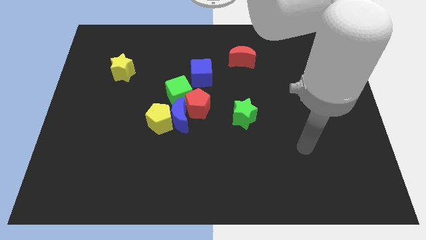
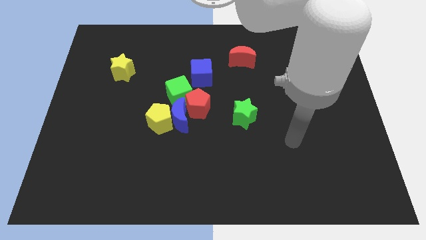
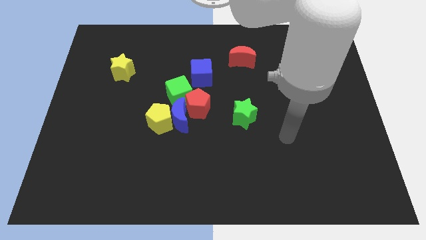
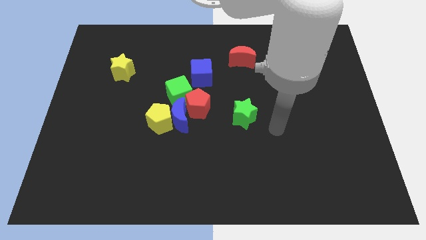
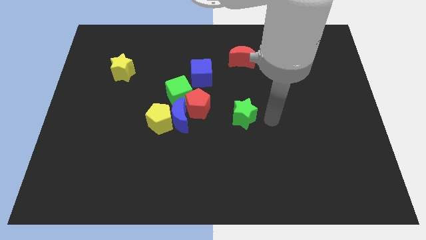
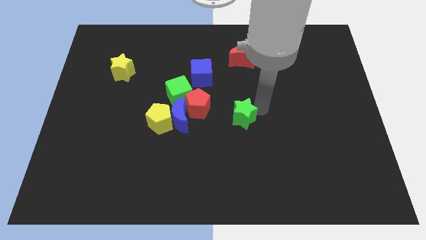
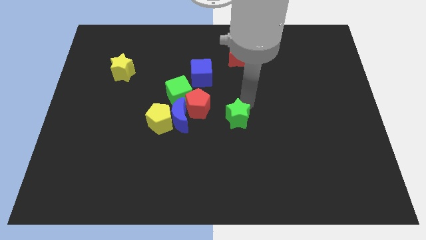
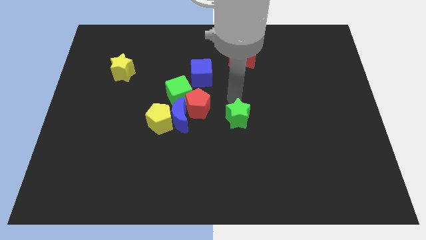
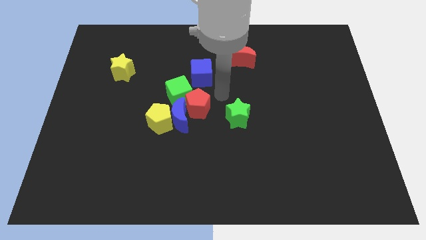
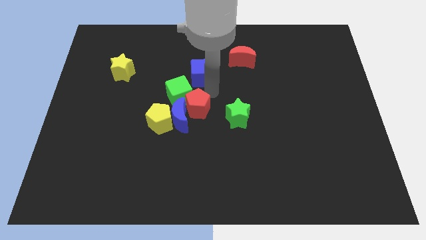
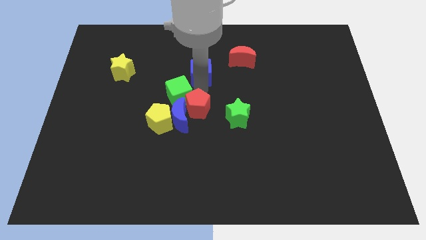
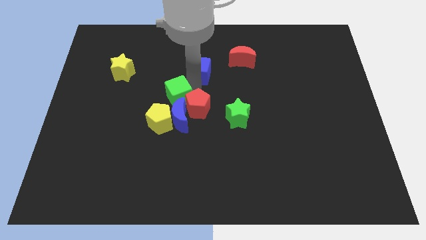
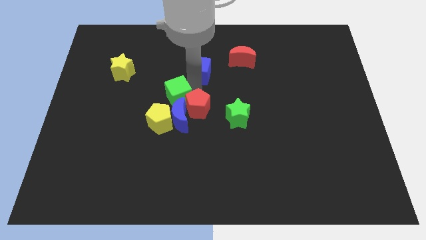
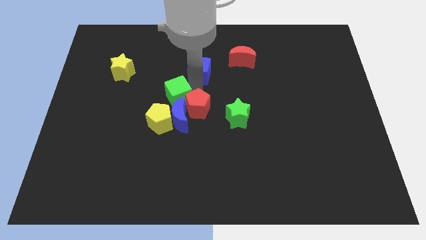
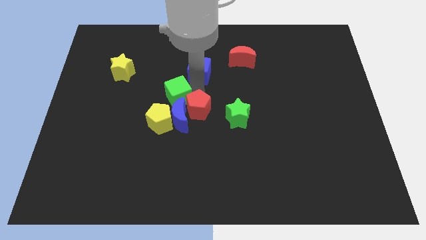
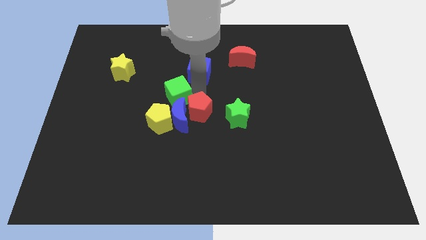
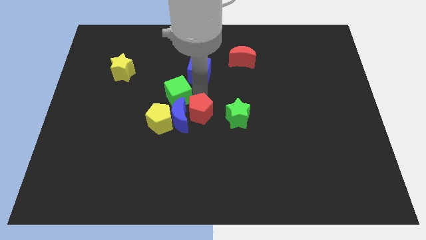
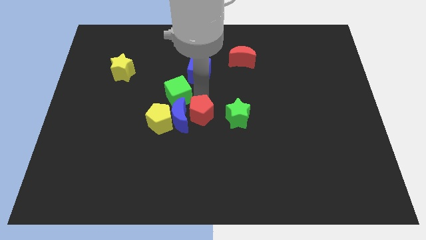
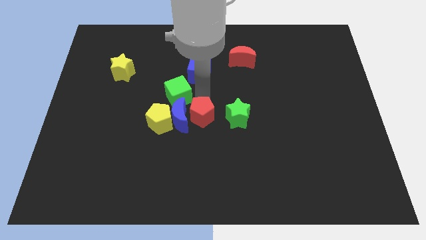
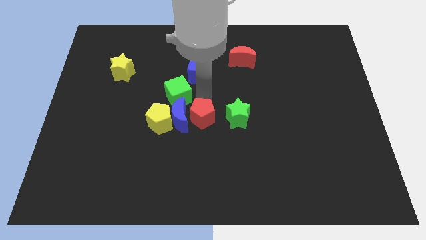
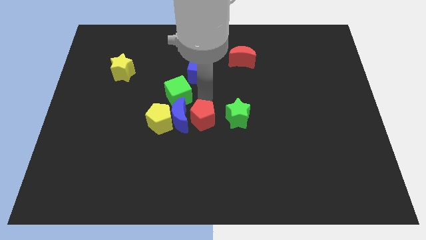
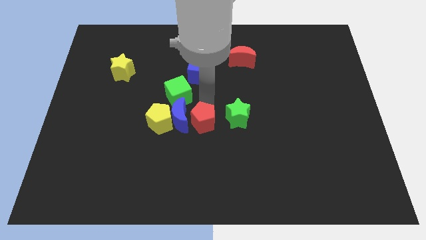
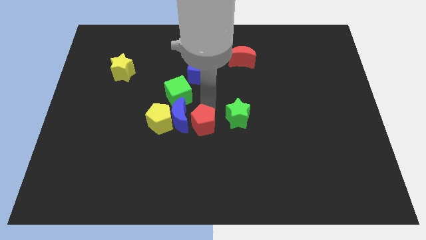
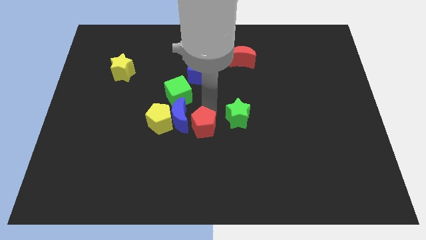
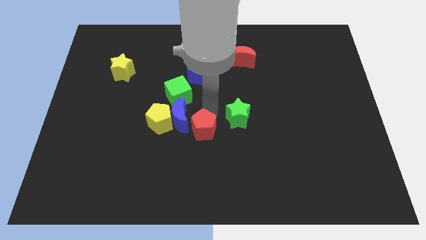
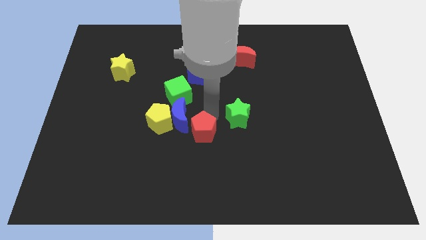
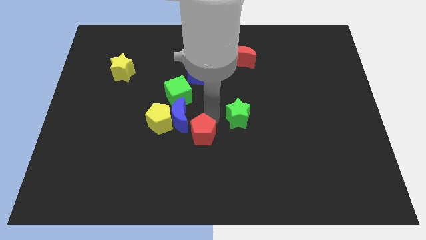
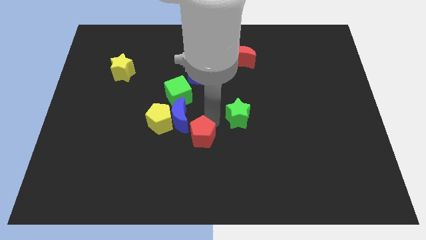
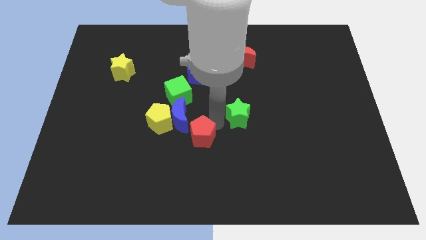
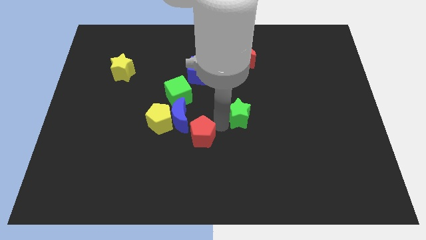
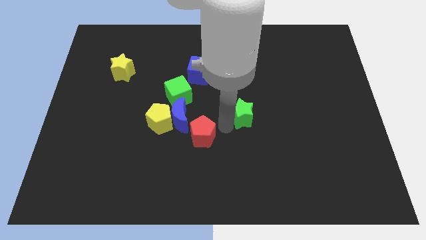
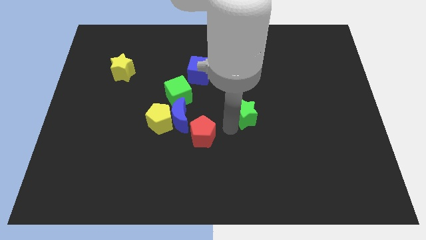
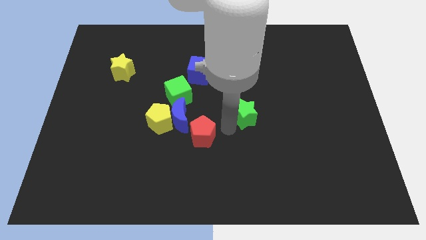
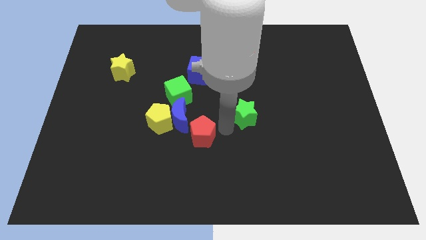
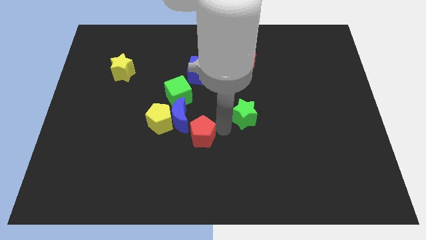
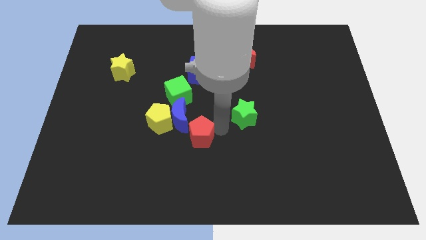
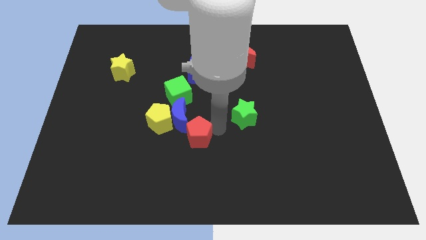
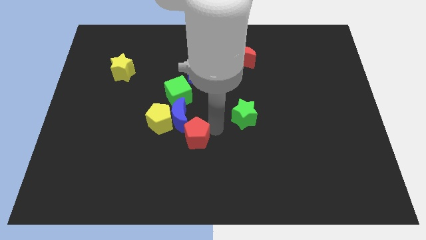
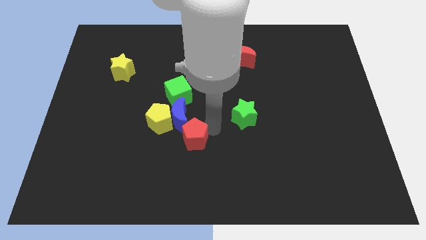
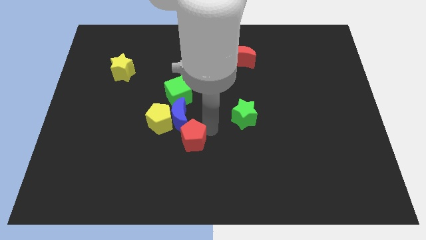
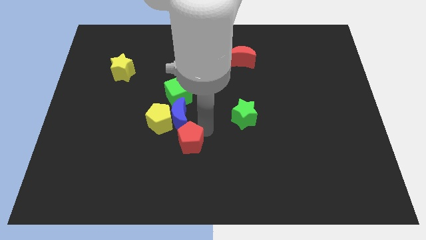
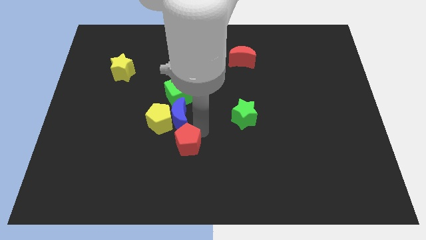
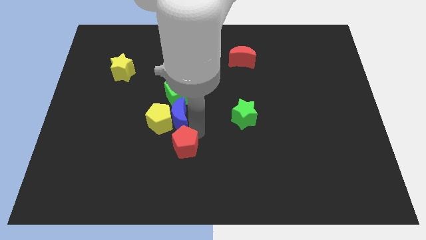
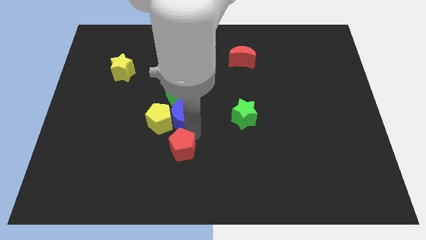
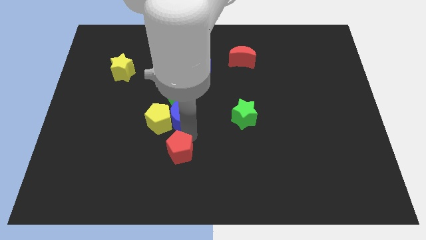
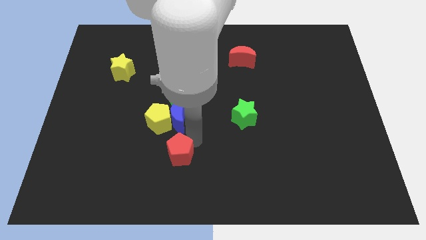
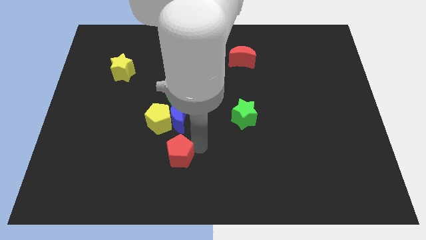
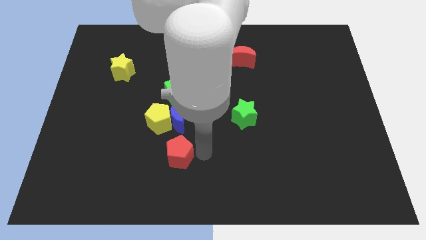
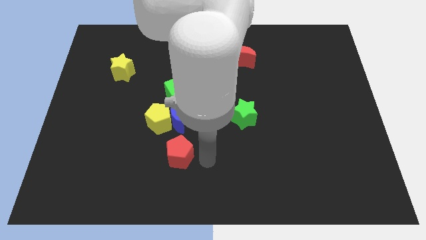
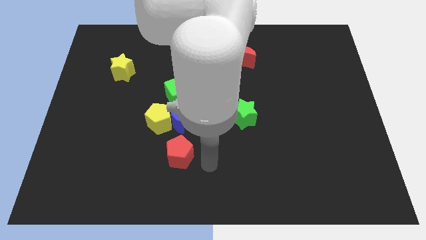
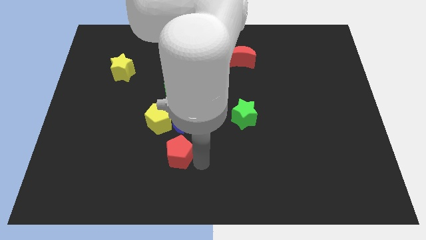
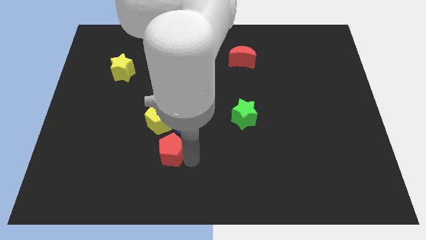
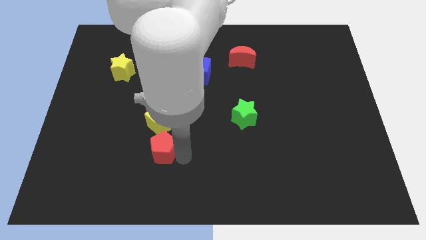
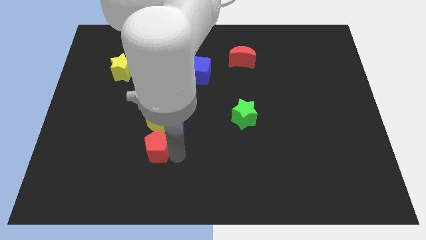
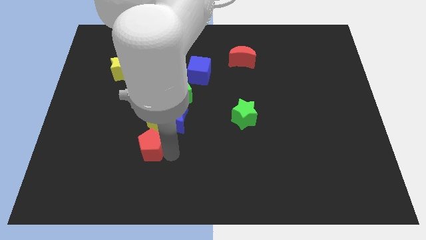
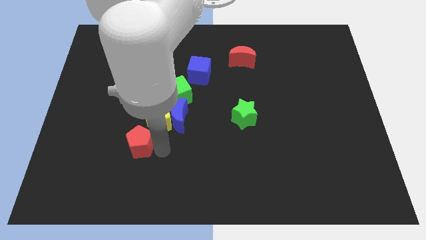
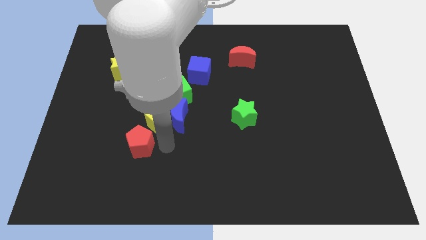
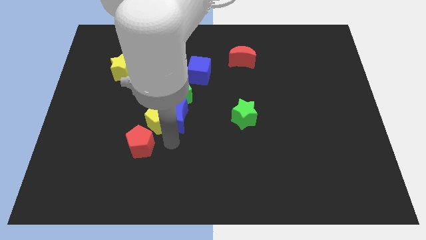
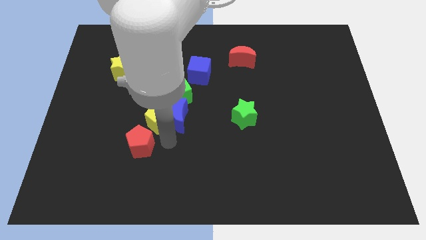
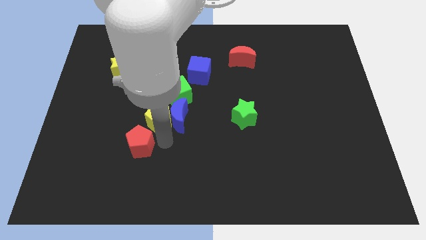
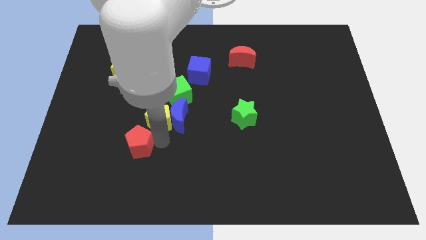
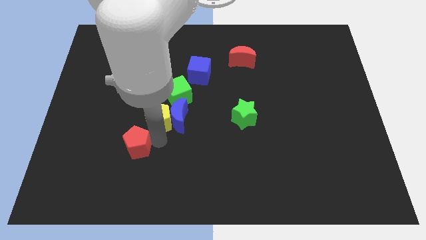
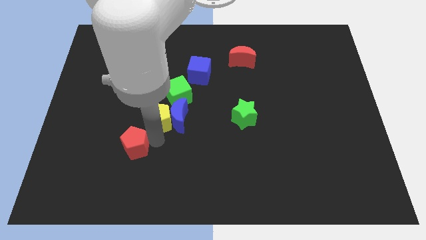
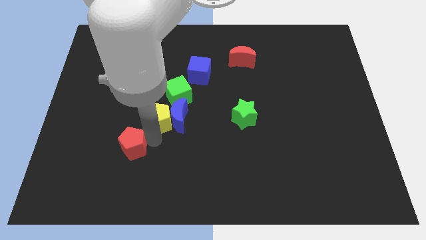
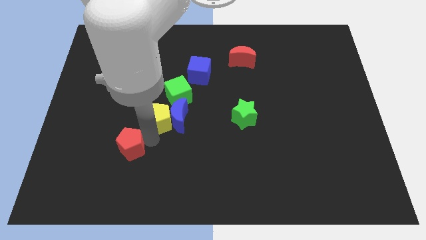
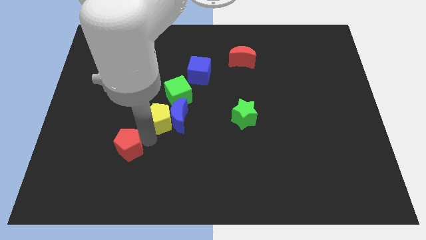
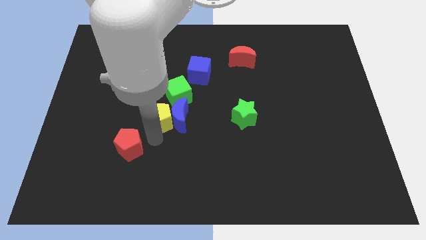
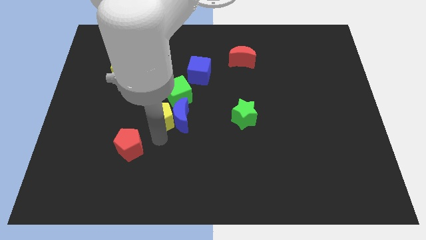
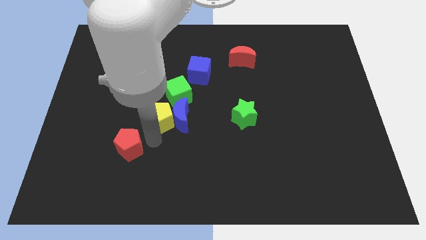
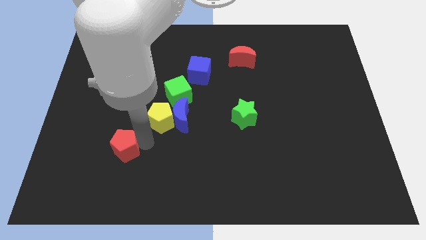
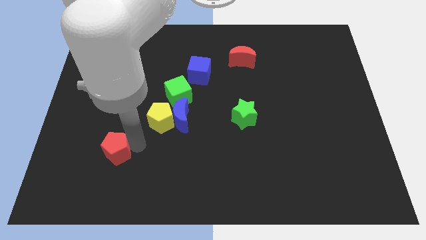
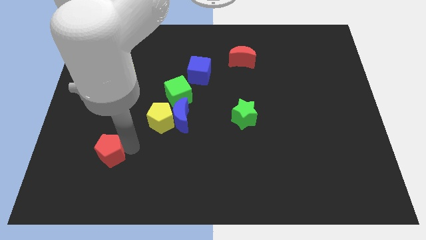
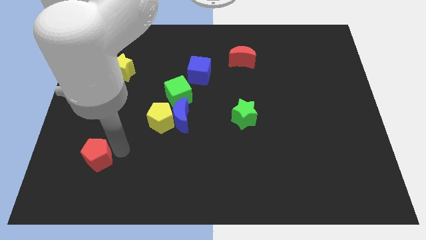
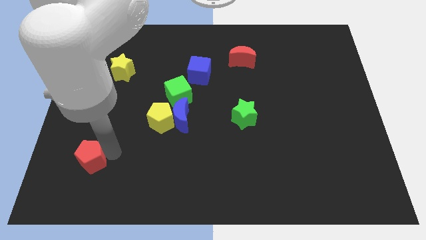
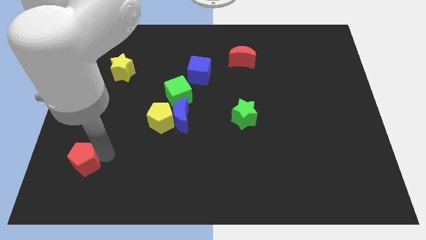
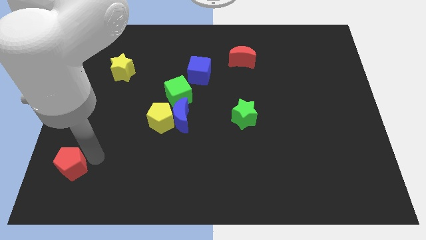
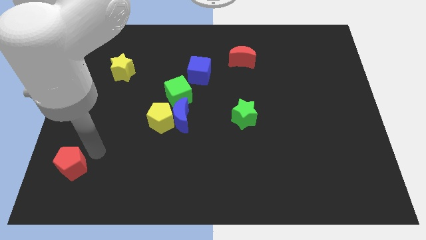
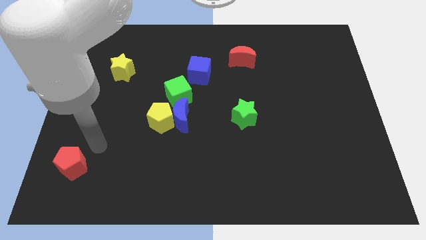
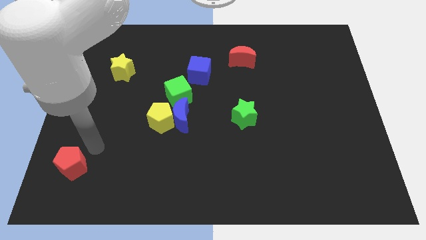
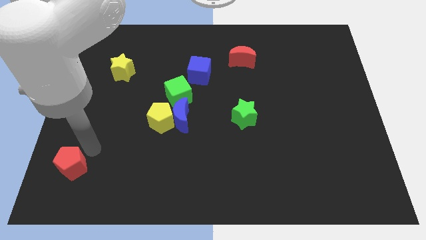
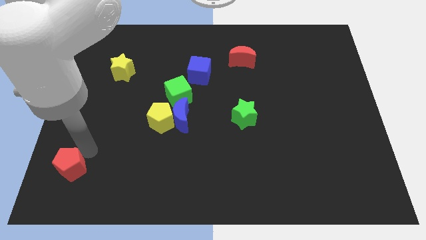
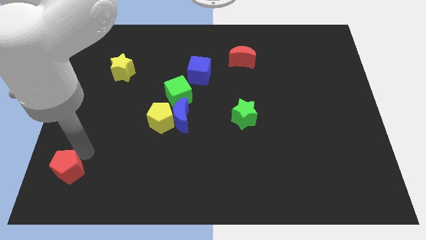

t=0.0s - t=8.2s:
slide the red pentagon to the bottom left
